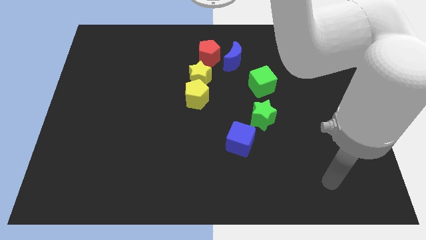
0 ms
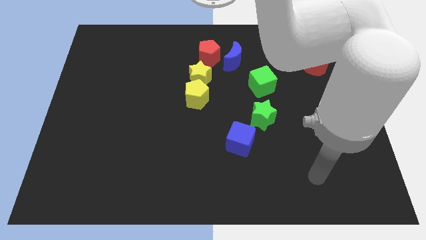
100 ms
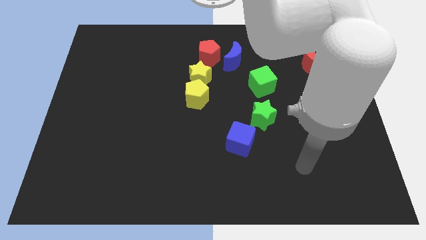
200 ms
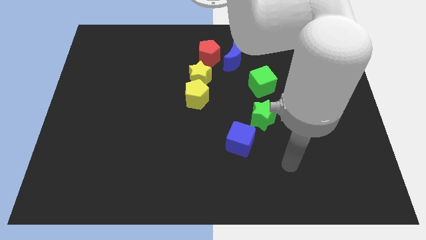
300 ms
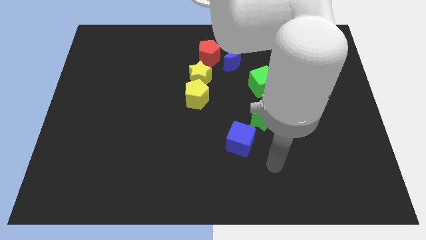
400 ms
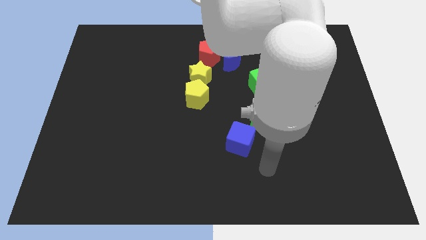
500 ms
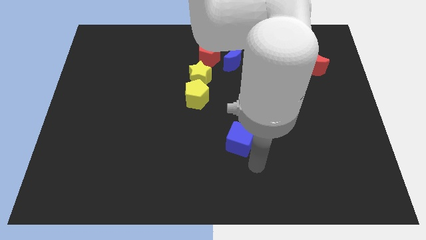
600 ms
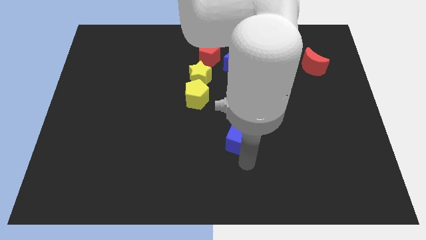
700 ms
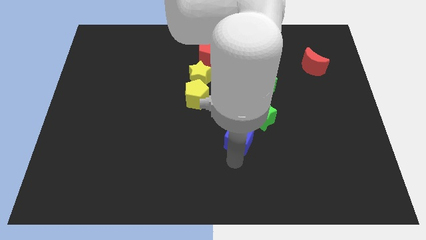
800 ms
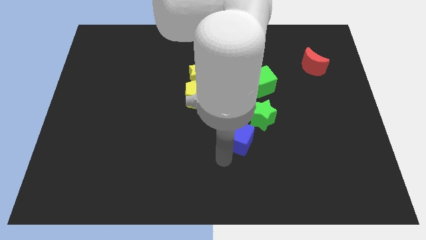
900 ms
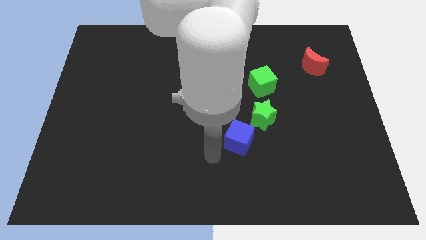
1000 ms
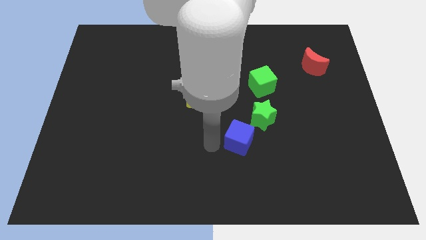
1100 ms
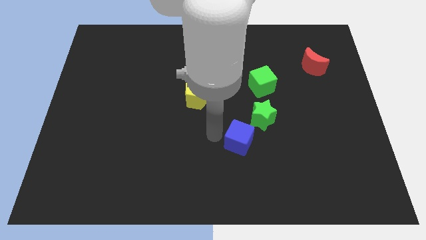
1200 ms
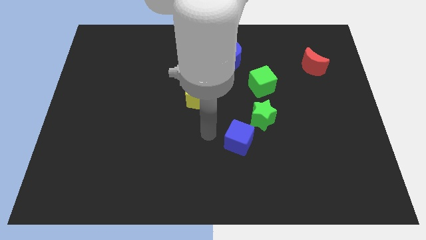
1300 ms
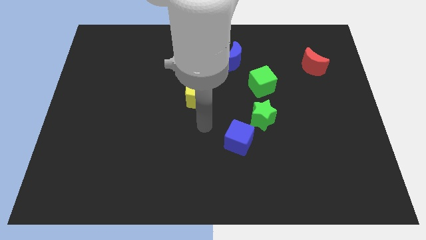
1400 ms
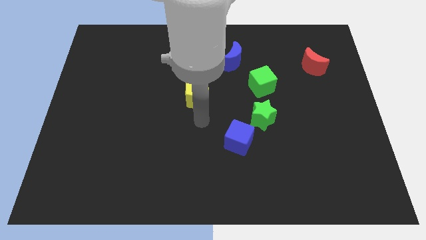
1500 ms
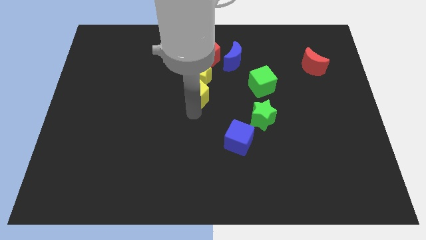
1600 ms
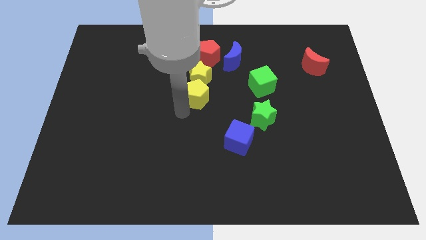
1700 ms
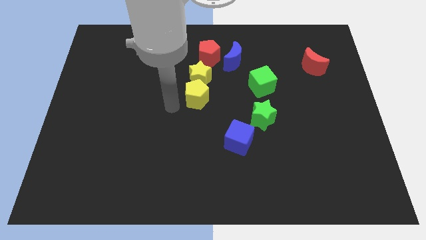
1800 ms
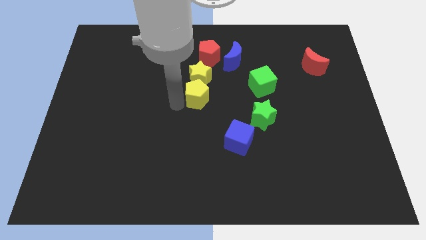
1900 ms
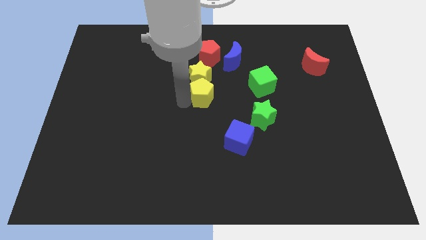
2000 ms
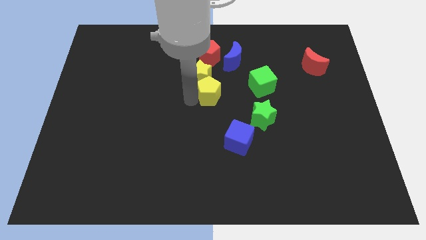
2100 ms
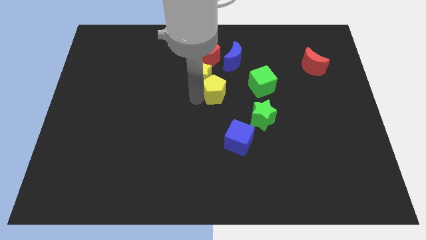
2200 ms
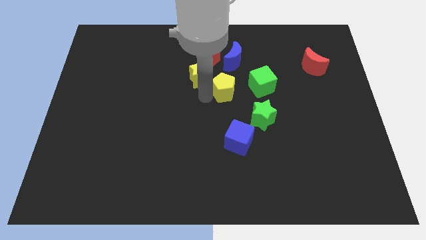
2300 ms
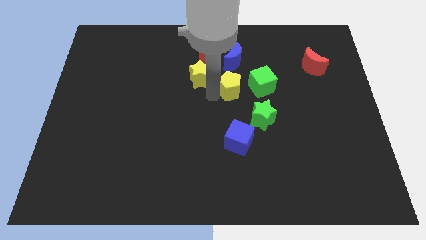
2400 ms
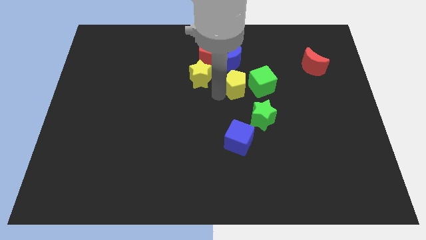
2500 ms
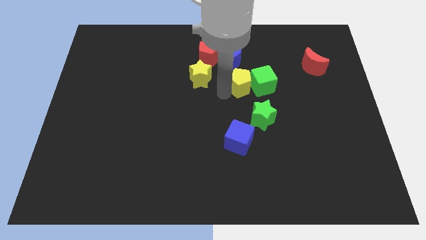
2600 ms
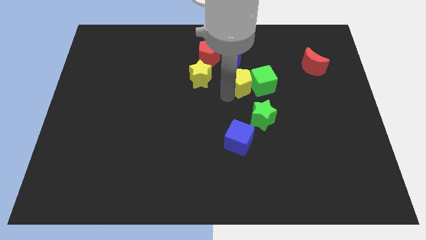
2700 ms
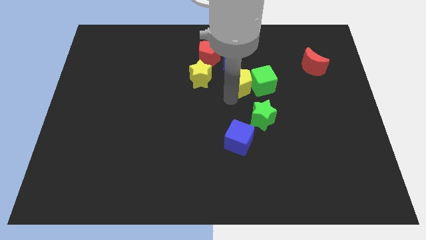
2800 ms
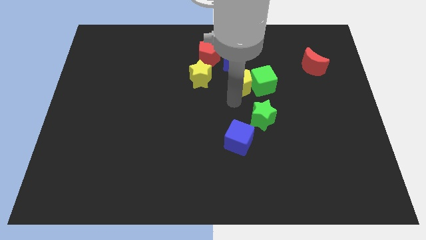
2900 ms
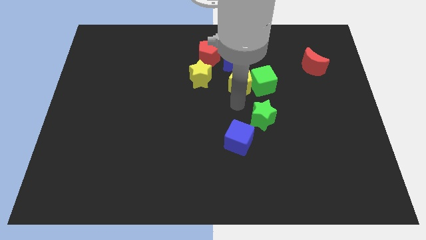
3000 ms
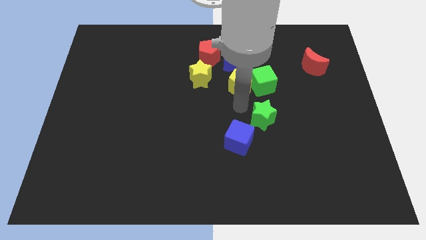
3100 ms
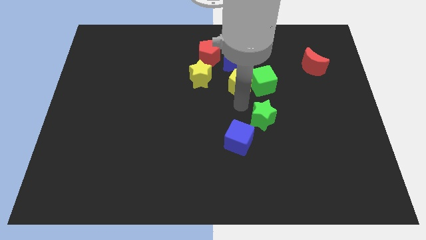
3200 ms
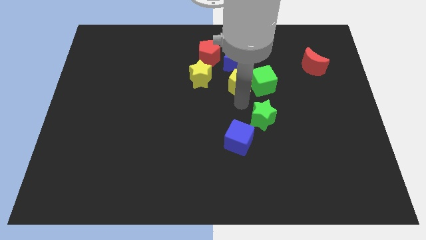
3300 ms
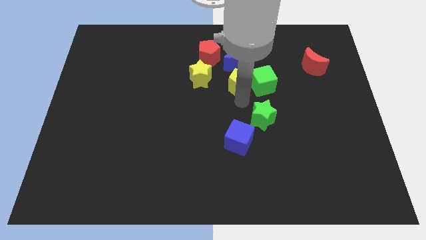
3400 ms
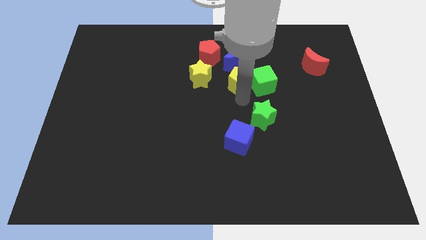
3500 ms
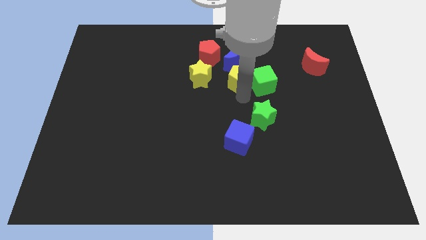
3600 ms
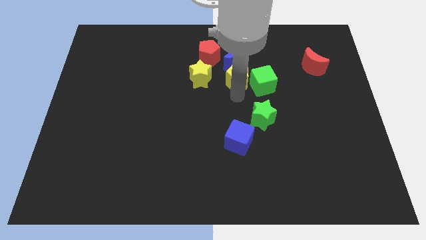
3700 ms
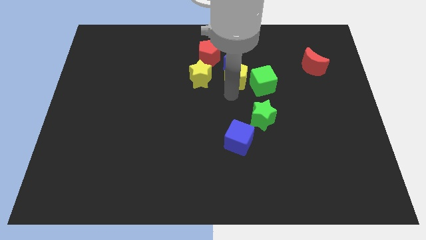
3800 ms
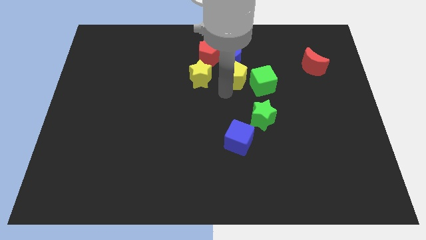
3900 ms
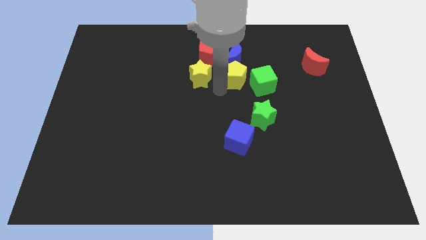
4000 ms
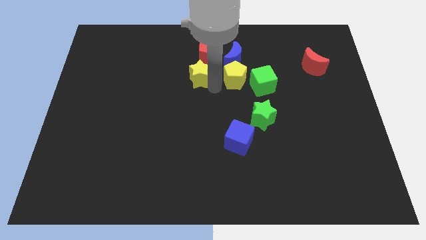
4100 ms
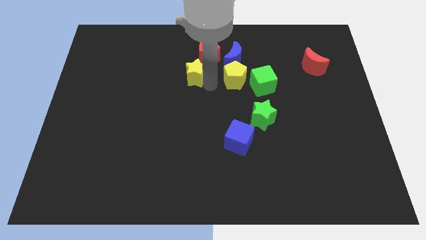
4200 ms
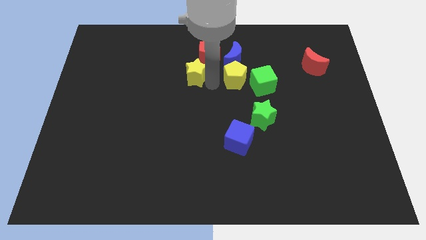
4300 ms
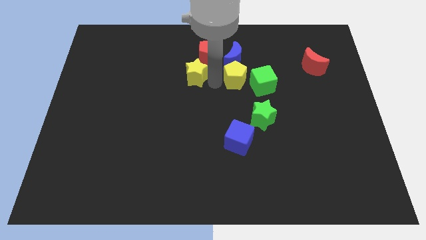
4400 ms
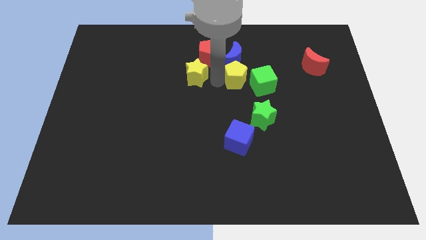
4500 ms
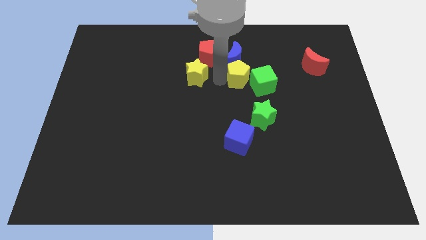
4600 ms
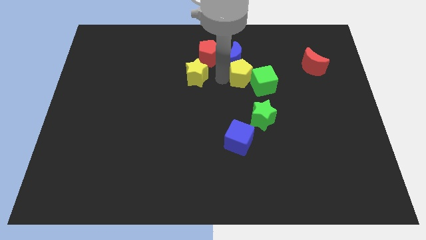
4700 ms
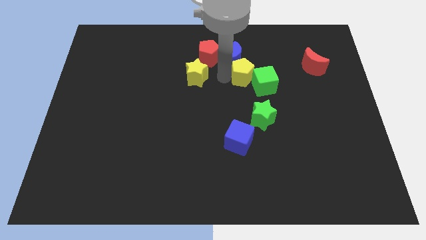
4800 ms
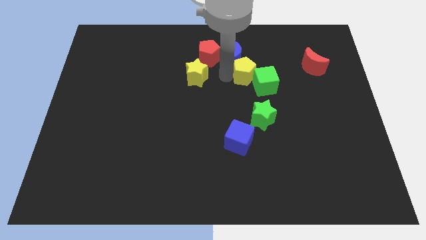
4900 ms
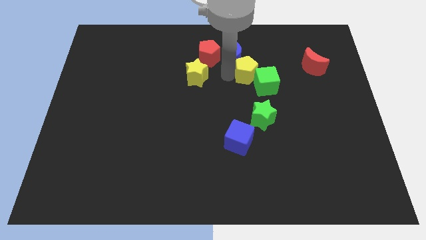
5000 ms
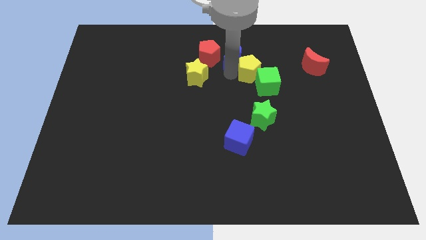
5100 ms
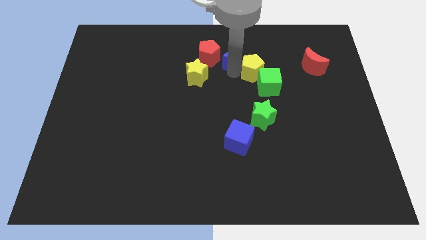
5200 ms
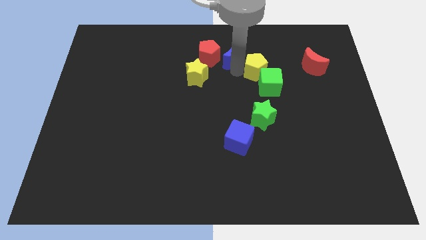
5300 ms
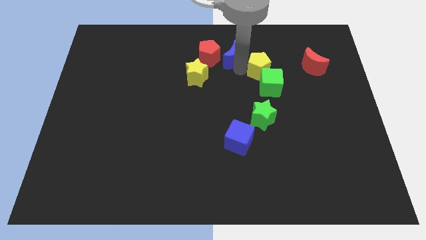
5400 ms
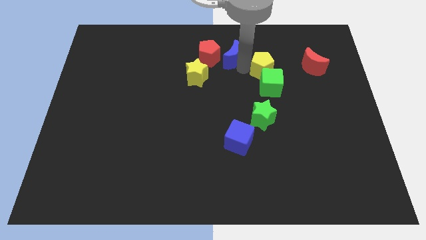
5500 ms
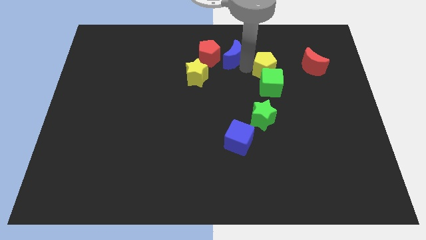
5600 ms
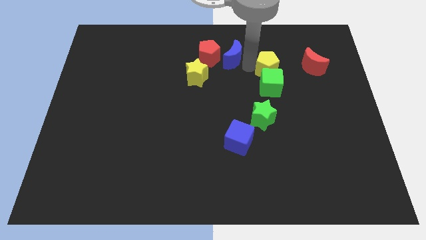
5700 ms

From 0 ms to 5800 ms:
push the yellow pentagon diagonally up and to the right of the green cube

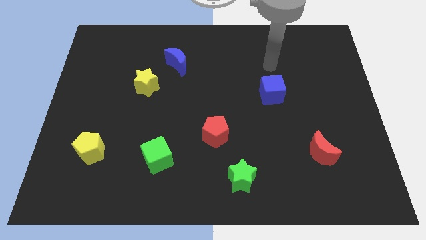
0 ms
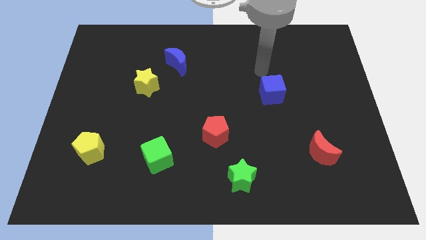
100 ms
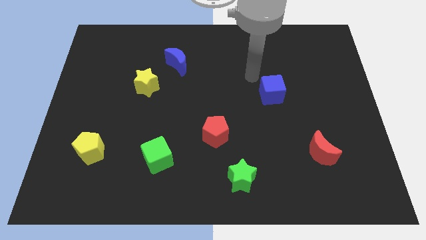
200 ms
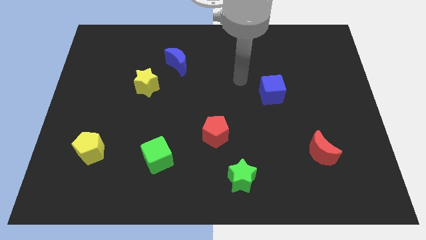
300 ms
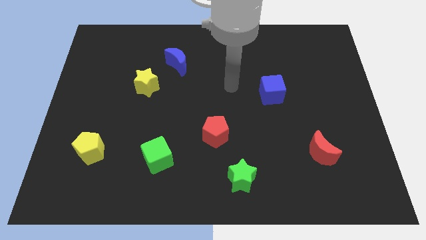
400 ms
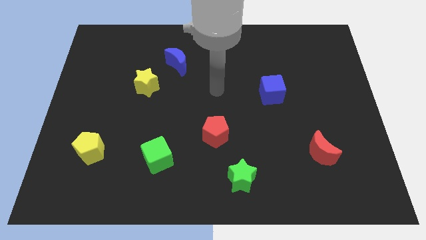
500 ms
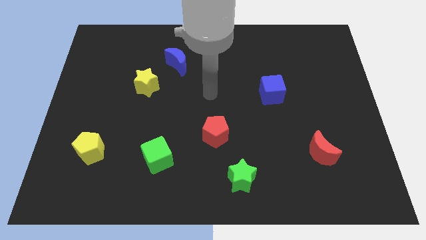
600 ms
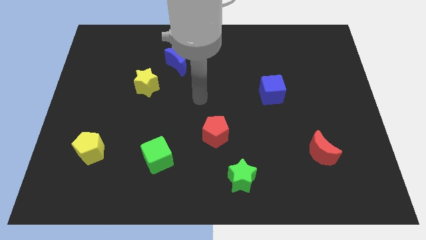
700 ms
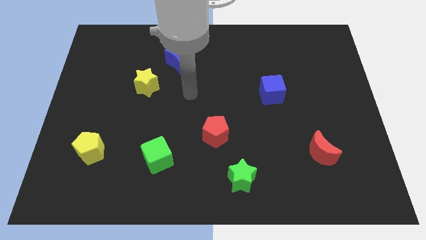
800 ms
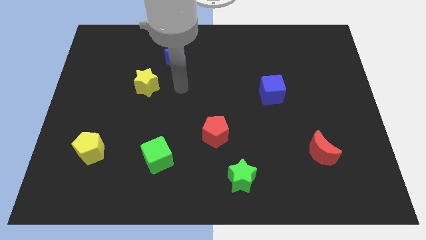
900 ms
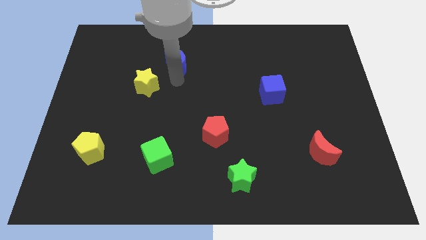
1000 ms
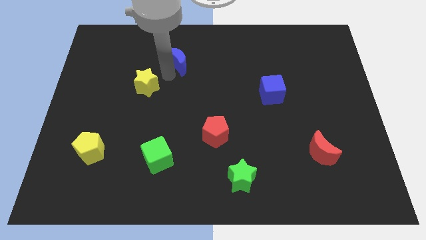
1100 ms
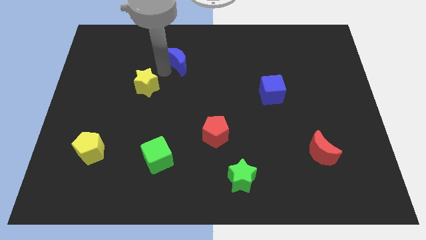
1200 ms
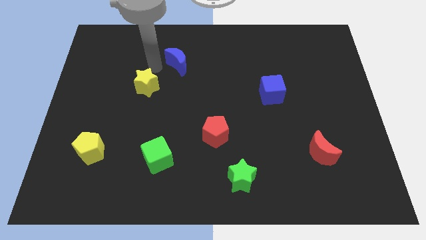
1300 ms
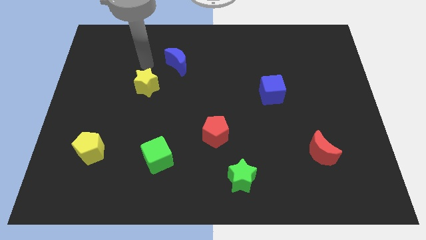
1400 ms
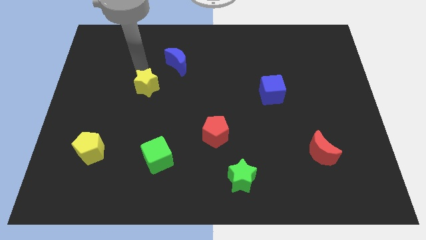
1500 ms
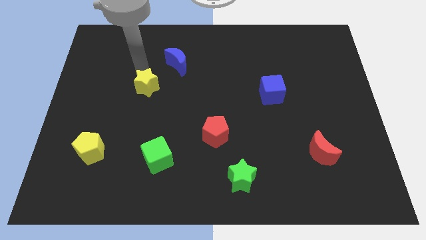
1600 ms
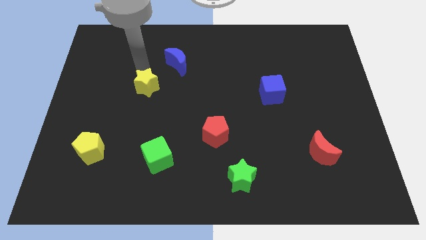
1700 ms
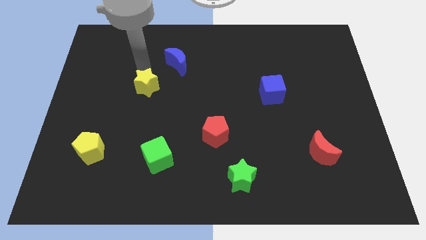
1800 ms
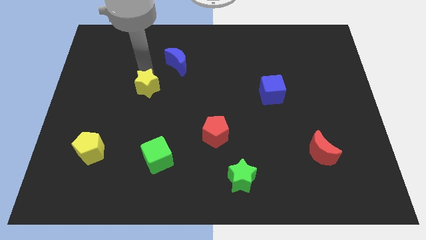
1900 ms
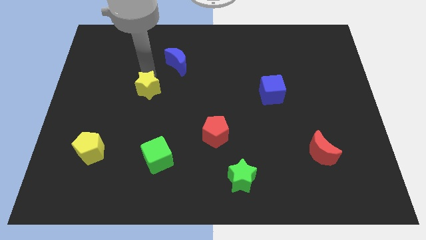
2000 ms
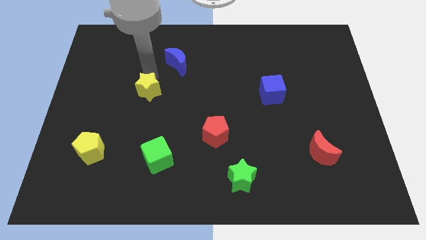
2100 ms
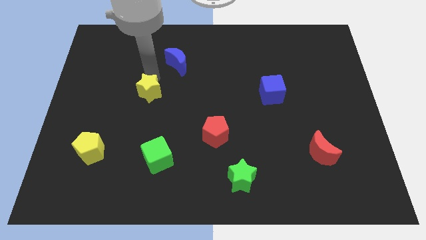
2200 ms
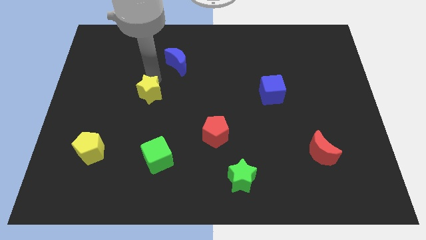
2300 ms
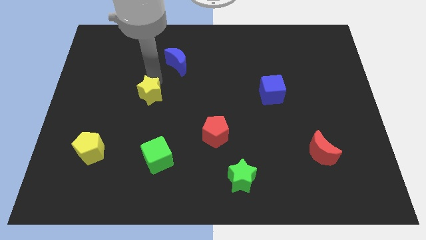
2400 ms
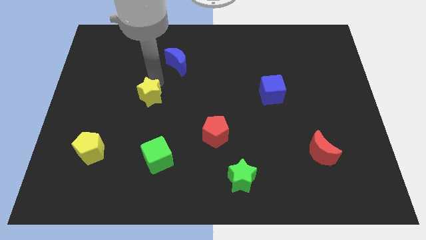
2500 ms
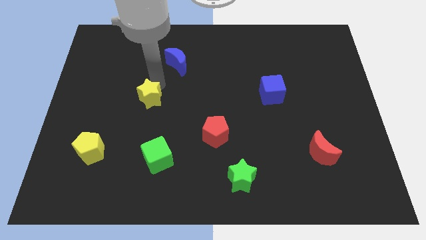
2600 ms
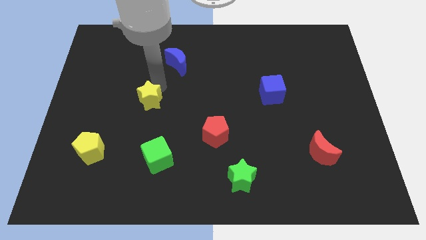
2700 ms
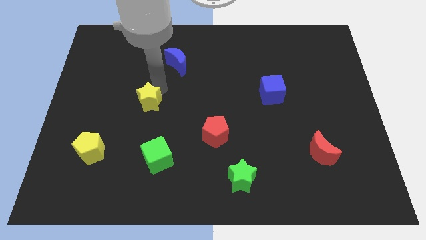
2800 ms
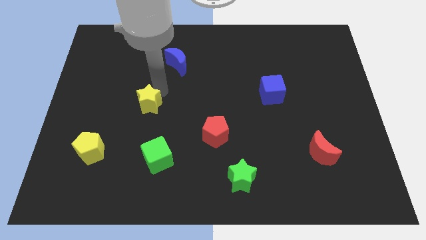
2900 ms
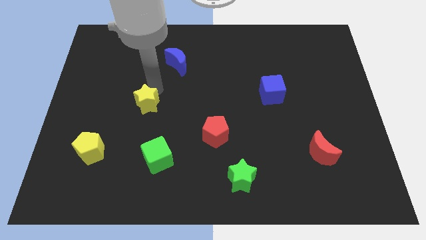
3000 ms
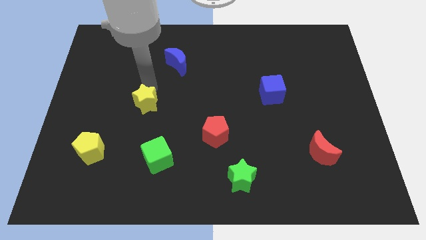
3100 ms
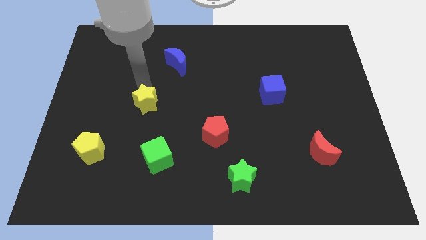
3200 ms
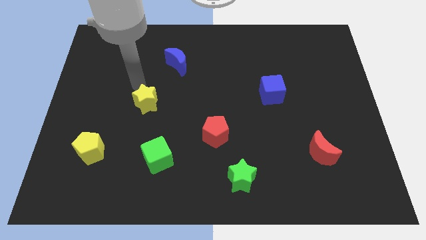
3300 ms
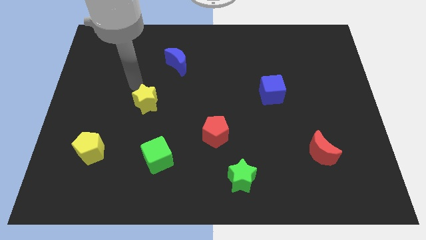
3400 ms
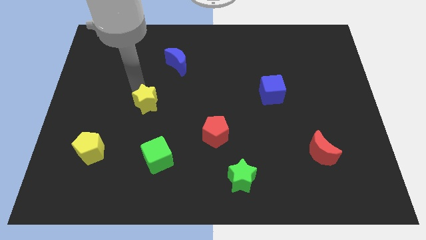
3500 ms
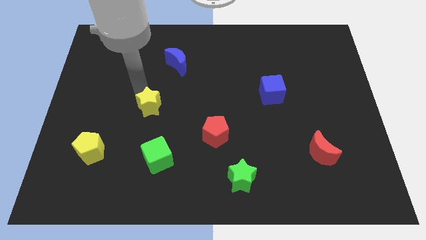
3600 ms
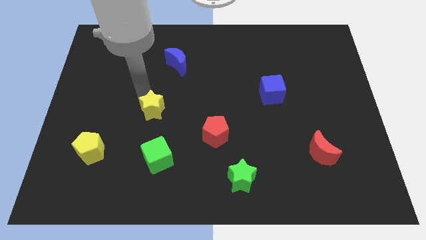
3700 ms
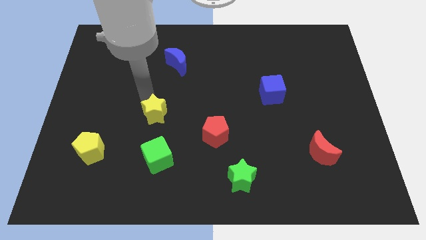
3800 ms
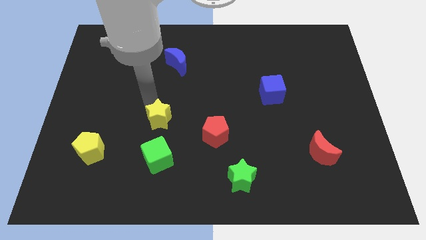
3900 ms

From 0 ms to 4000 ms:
move the yellow star to the left side of the red pentagon
